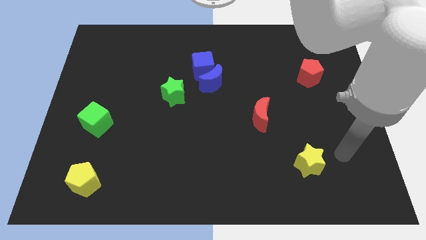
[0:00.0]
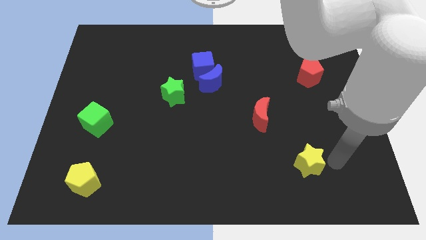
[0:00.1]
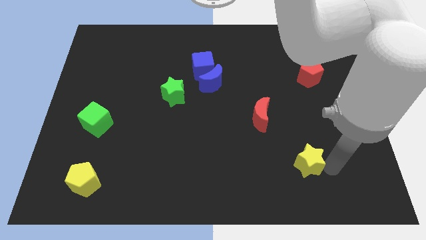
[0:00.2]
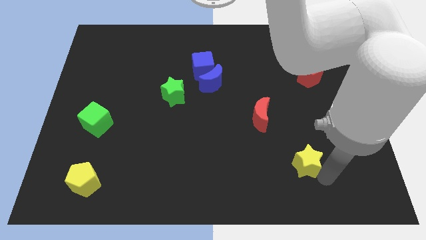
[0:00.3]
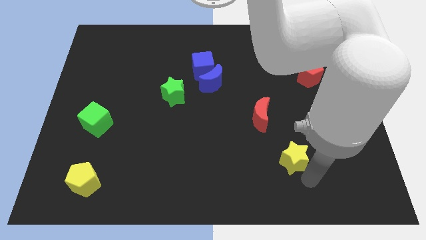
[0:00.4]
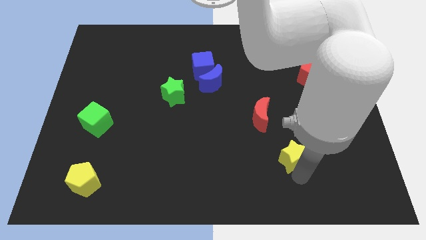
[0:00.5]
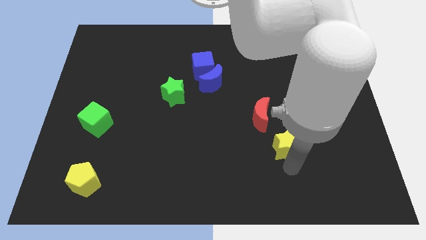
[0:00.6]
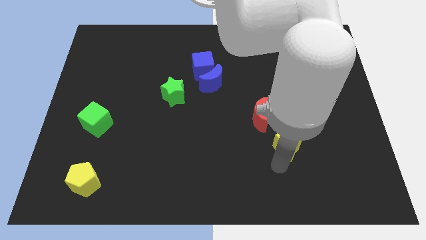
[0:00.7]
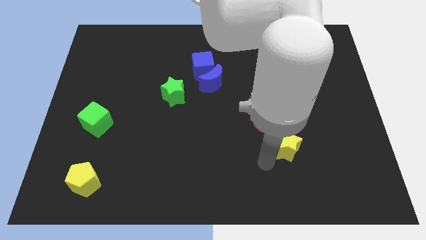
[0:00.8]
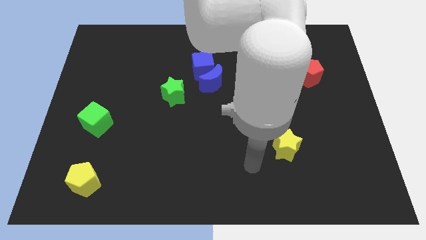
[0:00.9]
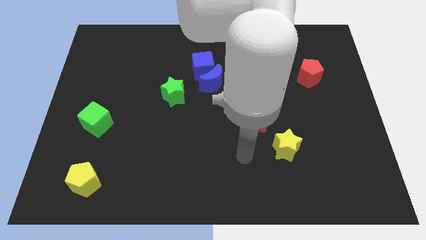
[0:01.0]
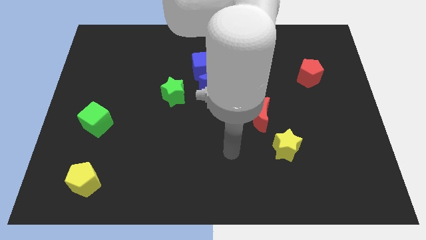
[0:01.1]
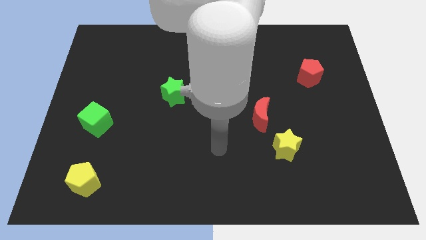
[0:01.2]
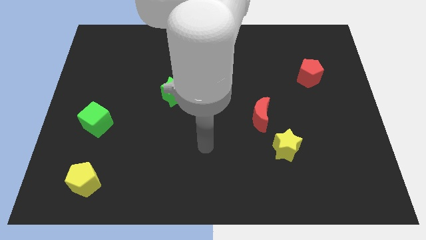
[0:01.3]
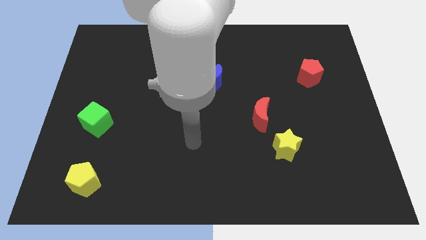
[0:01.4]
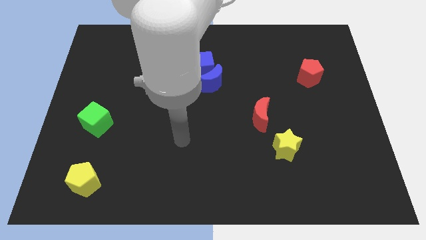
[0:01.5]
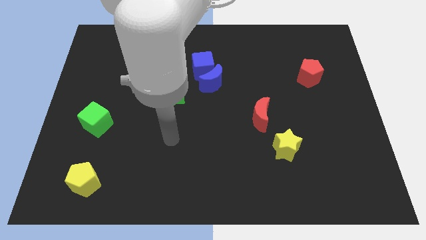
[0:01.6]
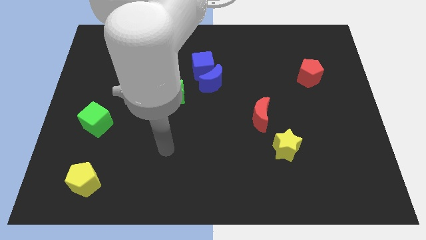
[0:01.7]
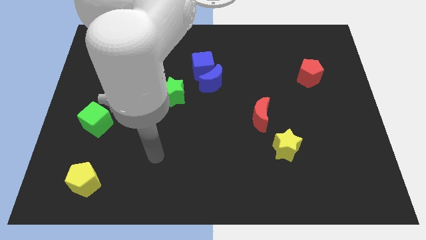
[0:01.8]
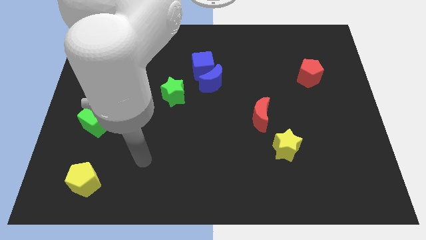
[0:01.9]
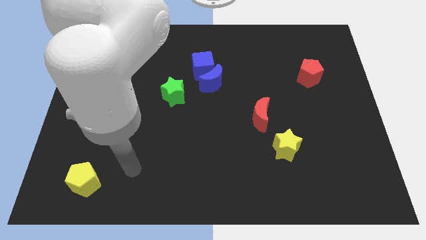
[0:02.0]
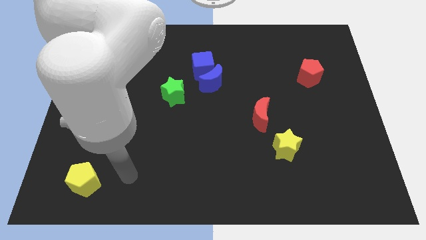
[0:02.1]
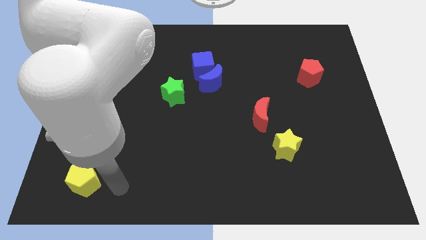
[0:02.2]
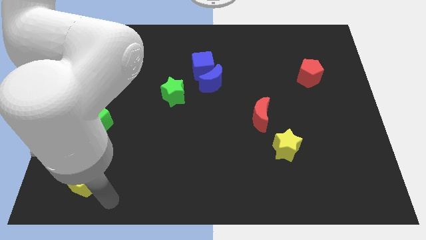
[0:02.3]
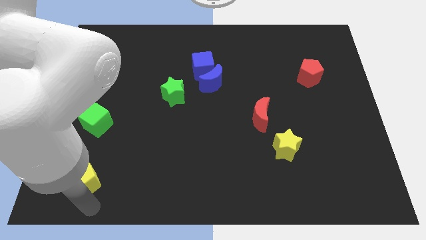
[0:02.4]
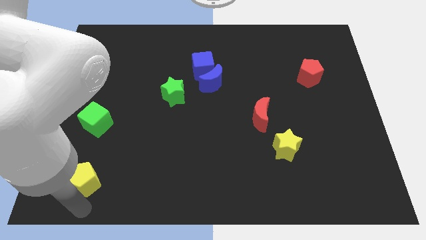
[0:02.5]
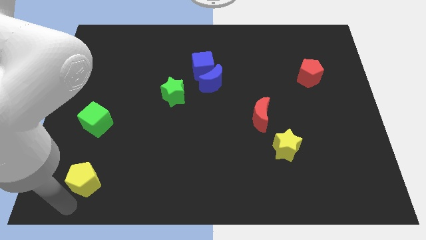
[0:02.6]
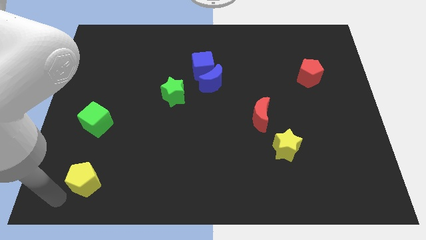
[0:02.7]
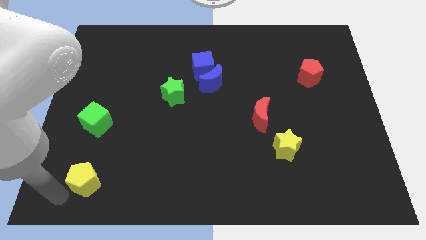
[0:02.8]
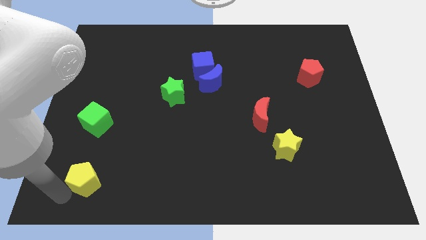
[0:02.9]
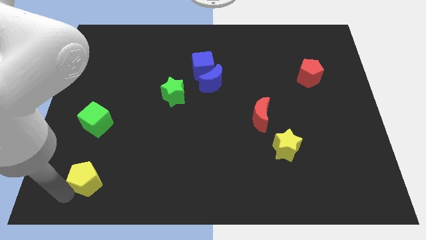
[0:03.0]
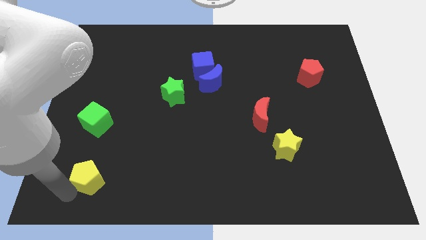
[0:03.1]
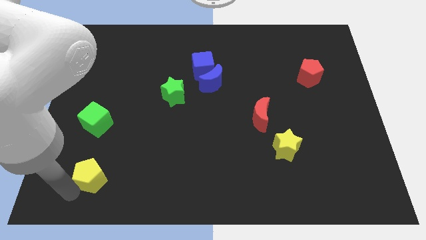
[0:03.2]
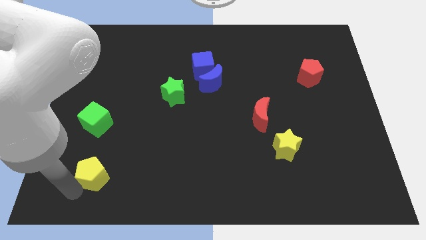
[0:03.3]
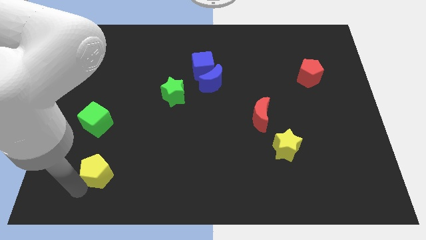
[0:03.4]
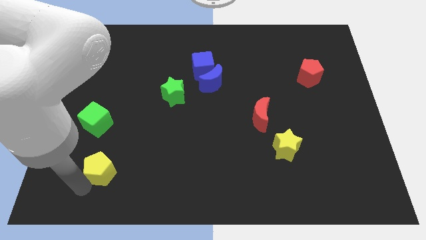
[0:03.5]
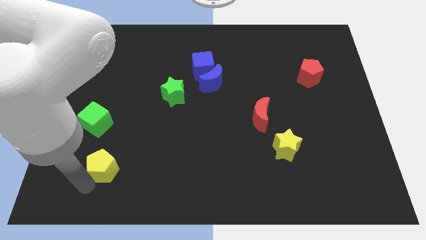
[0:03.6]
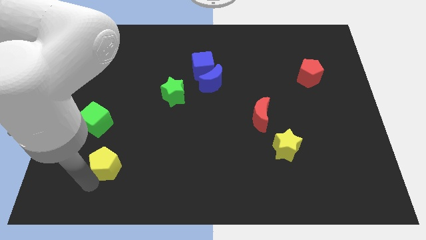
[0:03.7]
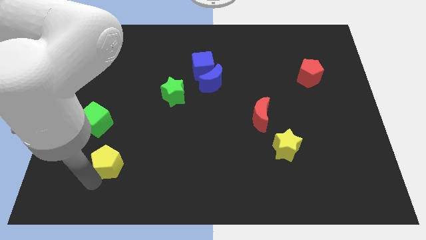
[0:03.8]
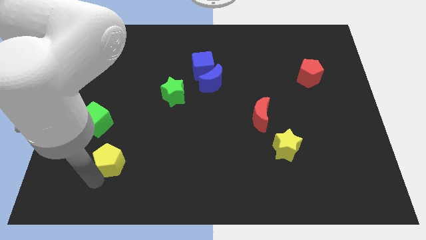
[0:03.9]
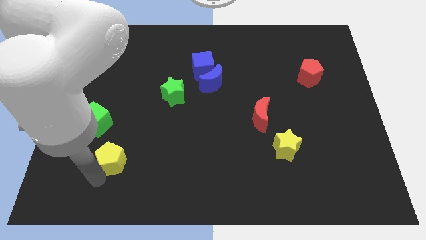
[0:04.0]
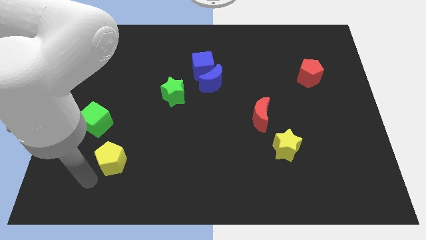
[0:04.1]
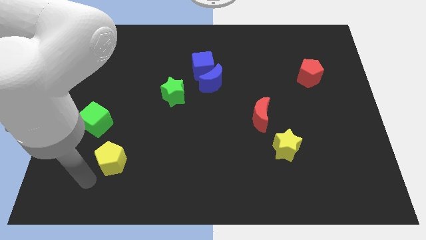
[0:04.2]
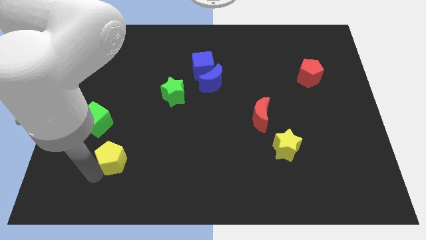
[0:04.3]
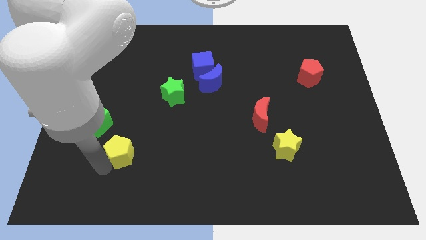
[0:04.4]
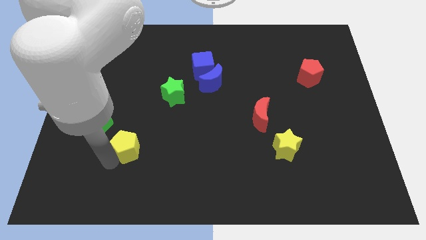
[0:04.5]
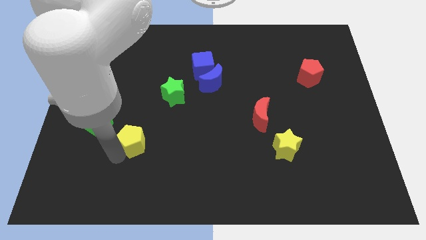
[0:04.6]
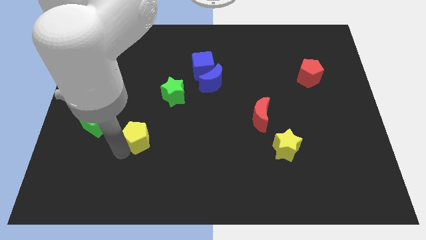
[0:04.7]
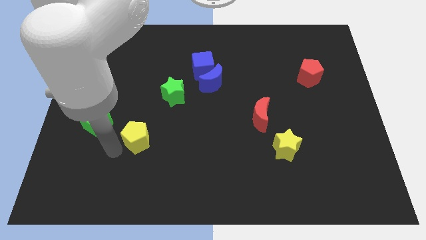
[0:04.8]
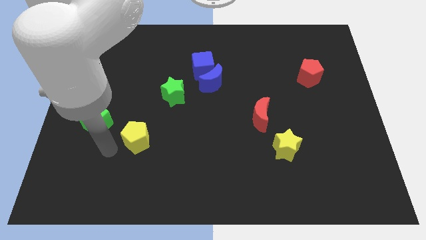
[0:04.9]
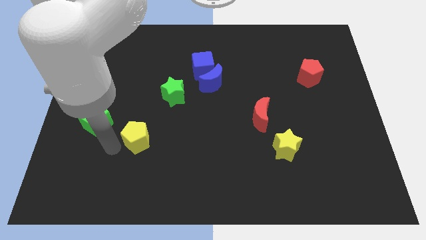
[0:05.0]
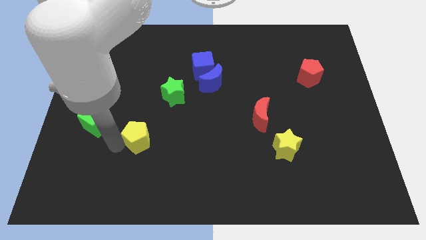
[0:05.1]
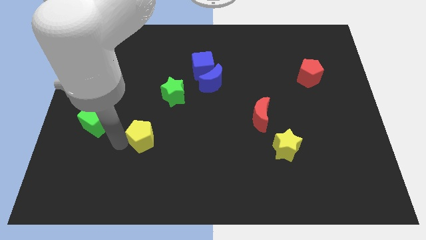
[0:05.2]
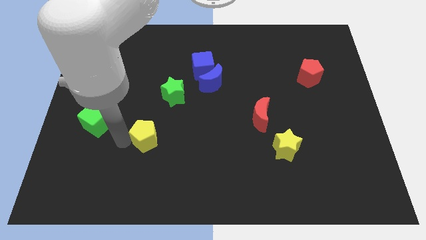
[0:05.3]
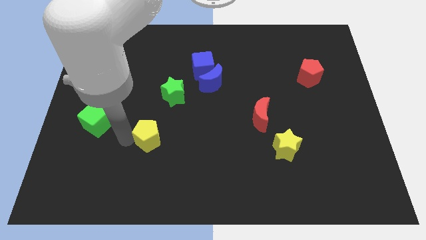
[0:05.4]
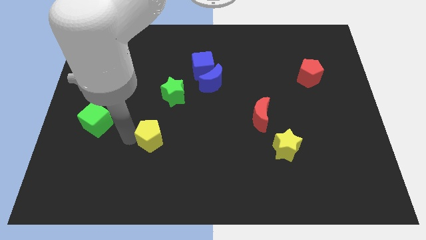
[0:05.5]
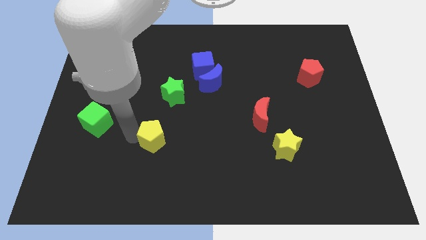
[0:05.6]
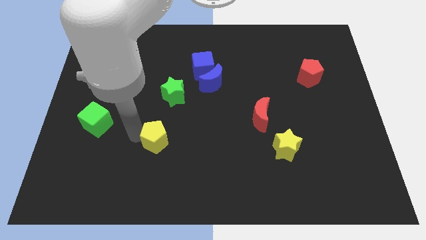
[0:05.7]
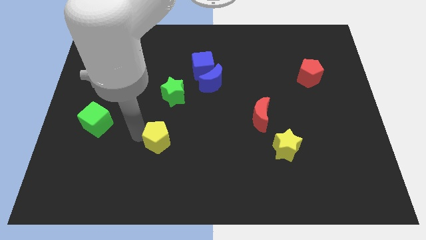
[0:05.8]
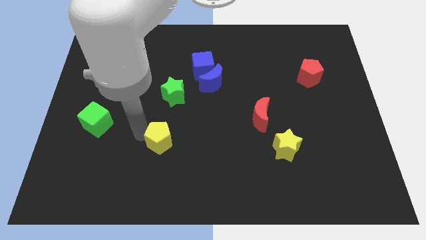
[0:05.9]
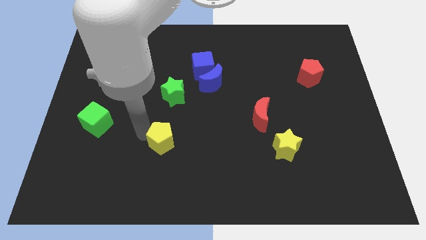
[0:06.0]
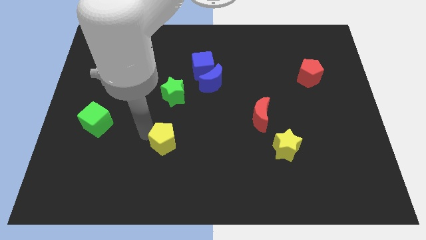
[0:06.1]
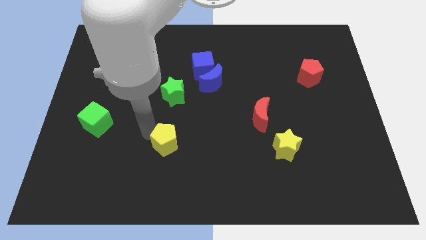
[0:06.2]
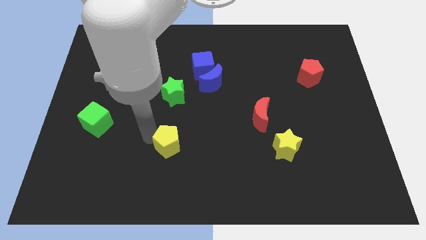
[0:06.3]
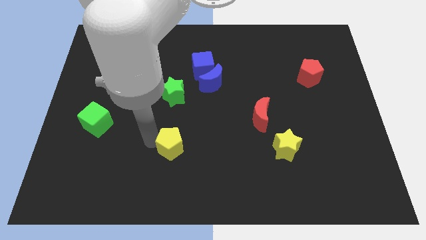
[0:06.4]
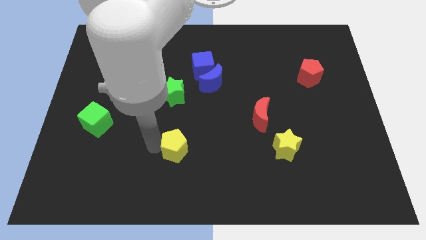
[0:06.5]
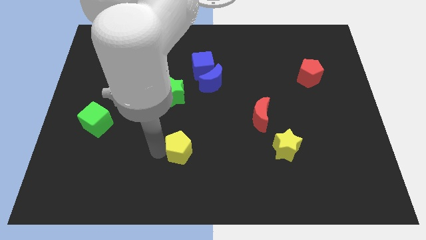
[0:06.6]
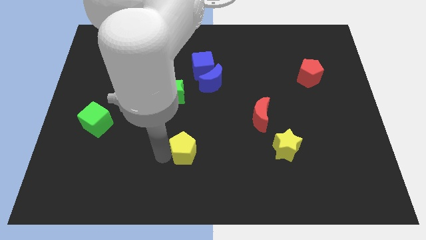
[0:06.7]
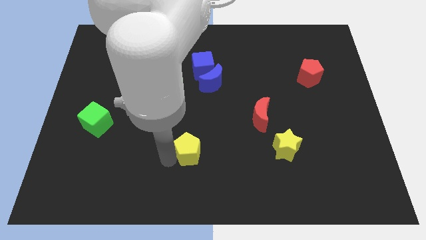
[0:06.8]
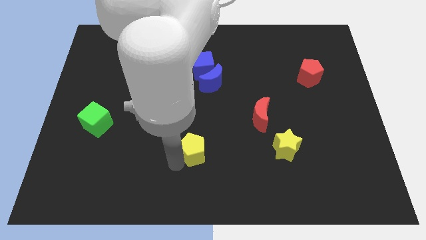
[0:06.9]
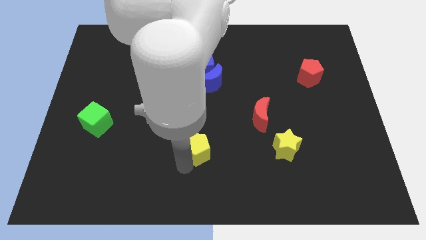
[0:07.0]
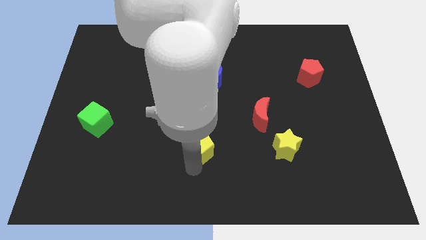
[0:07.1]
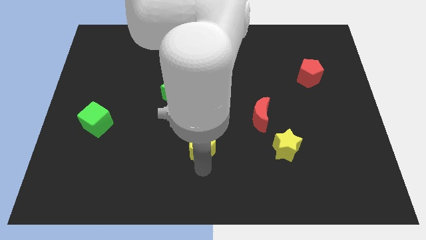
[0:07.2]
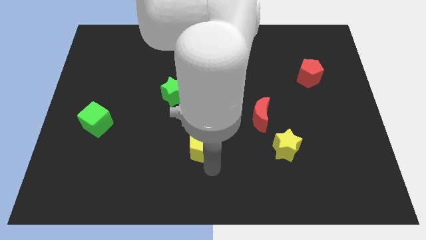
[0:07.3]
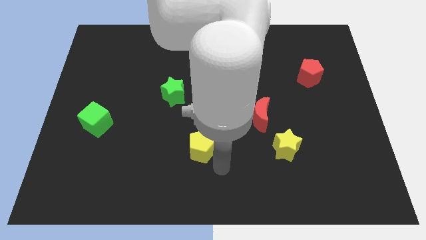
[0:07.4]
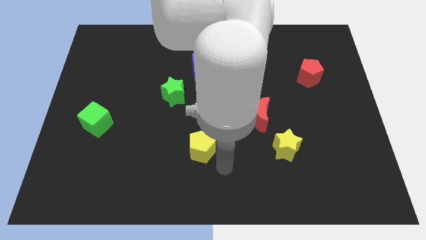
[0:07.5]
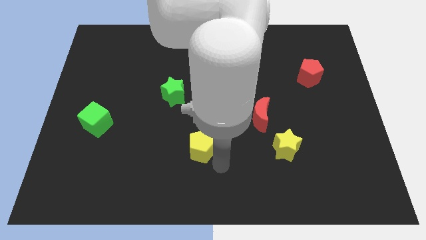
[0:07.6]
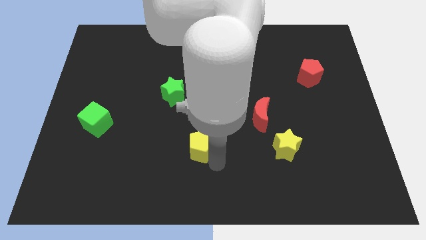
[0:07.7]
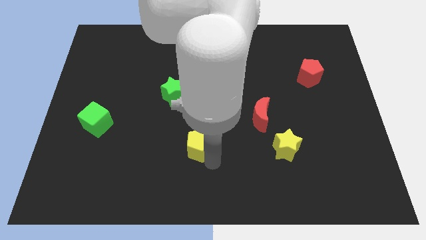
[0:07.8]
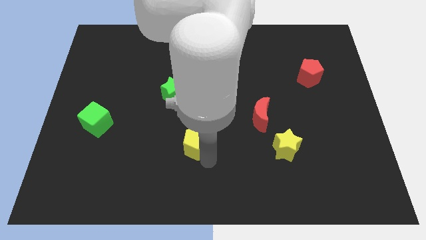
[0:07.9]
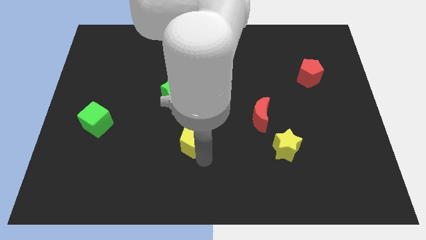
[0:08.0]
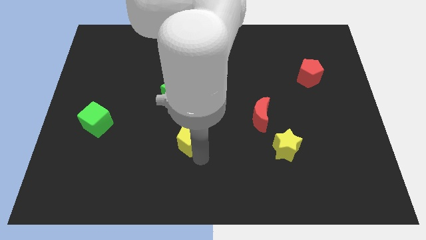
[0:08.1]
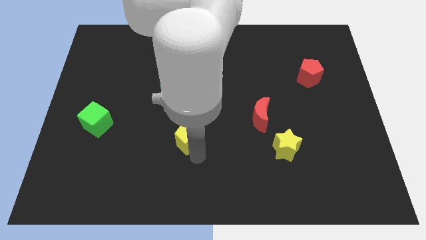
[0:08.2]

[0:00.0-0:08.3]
move the yellow pentagon to the center

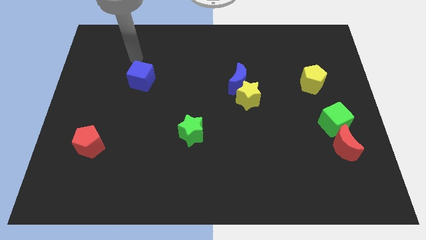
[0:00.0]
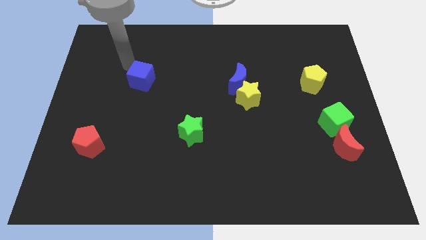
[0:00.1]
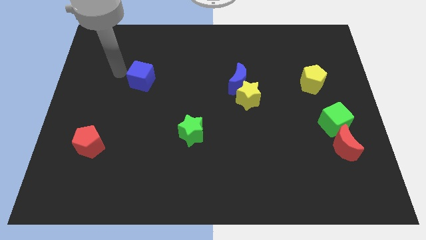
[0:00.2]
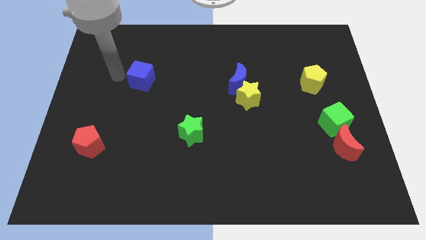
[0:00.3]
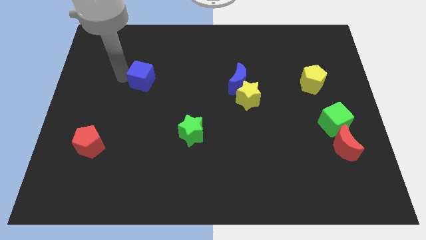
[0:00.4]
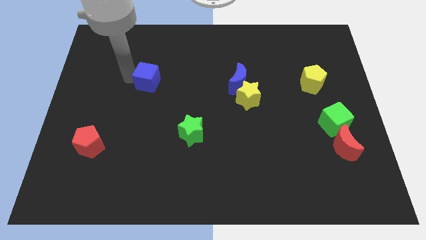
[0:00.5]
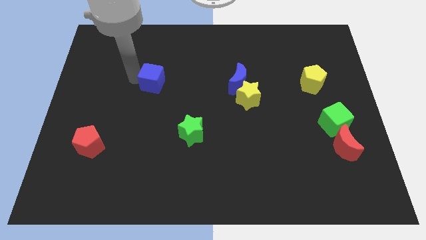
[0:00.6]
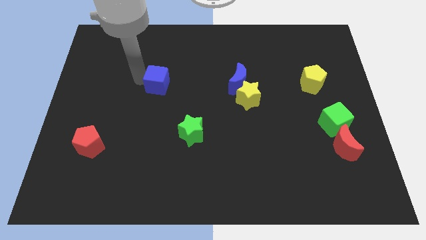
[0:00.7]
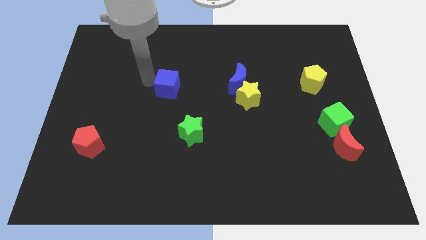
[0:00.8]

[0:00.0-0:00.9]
slide the blue cube to the center
